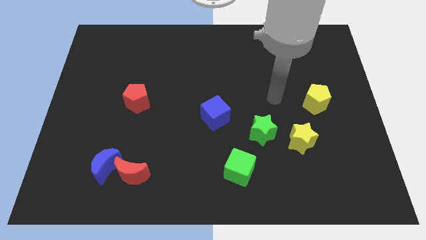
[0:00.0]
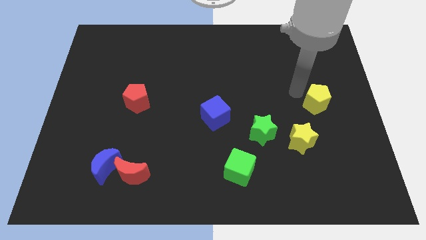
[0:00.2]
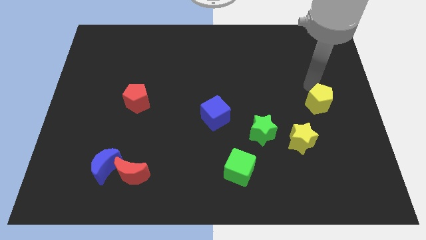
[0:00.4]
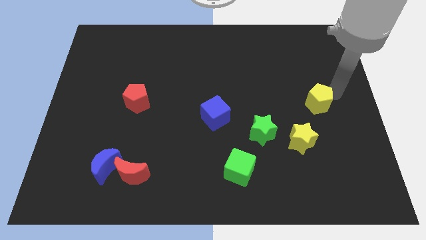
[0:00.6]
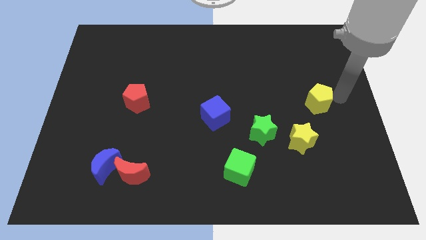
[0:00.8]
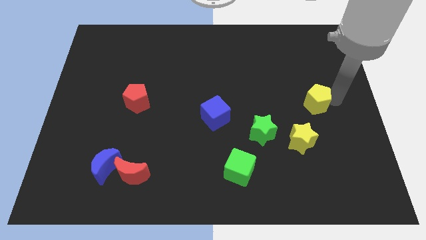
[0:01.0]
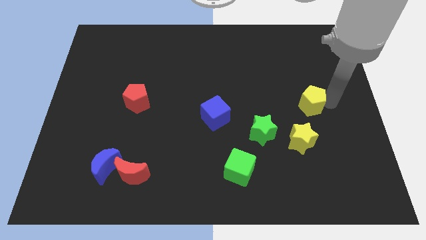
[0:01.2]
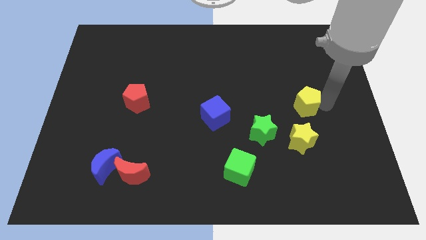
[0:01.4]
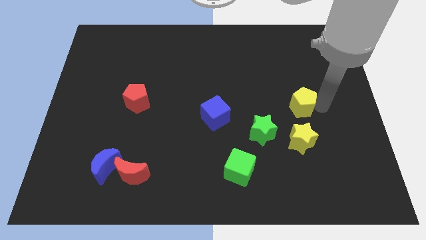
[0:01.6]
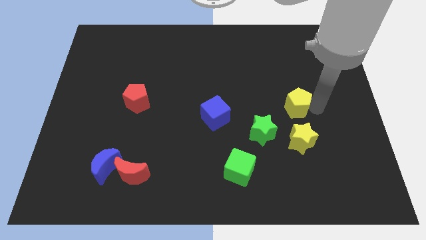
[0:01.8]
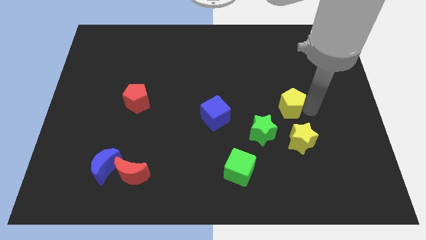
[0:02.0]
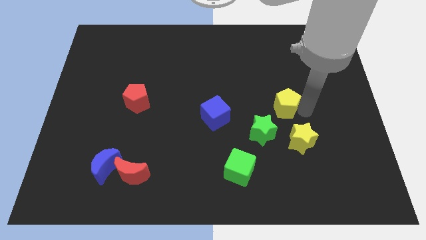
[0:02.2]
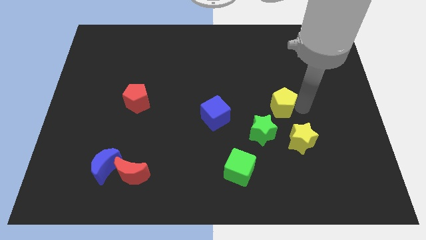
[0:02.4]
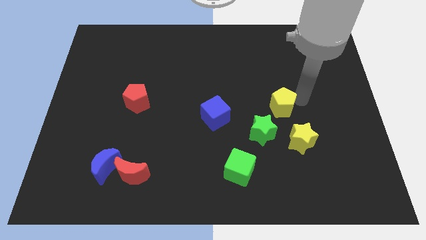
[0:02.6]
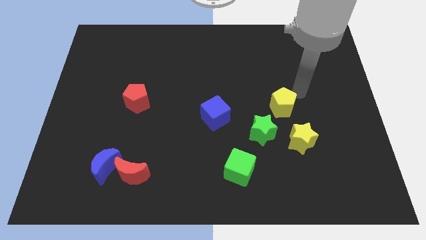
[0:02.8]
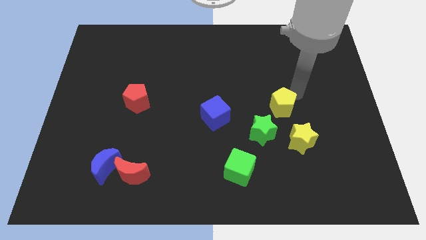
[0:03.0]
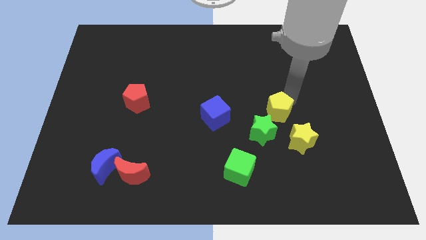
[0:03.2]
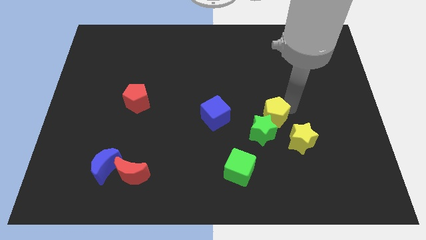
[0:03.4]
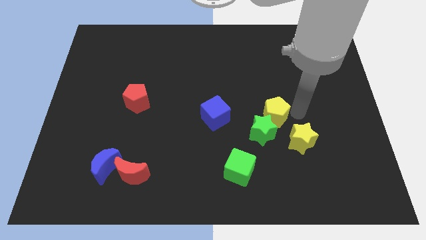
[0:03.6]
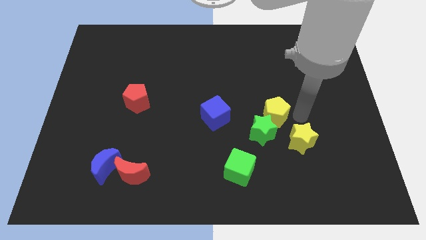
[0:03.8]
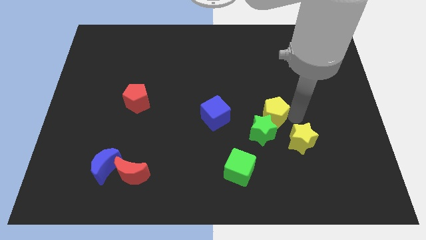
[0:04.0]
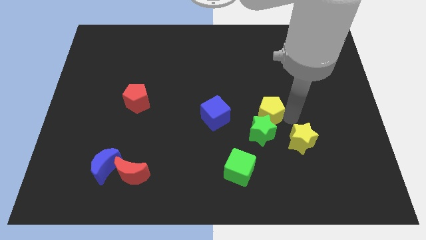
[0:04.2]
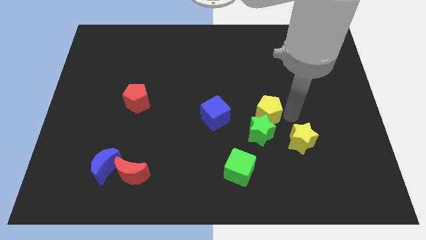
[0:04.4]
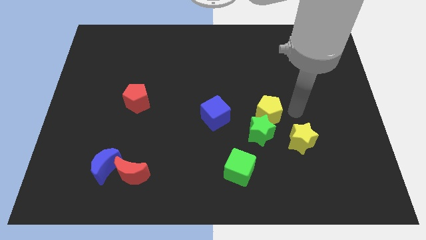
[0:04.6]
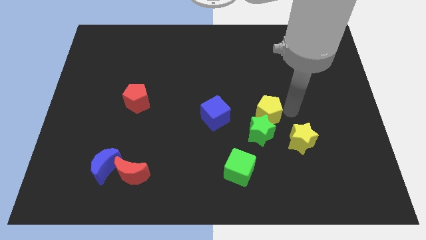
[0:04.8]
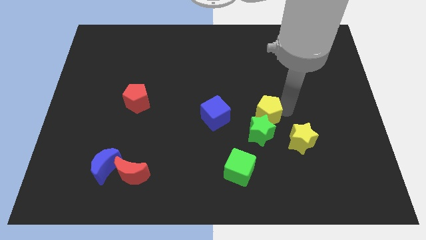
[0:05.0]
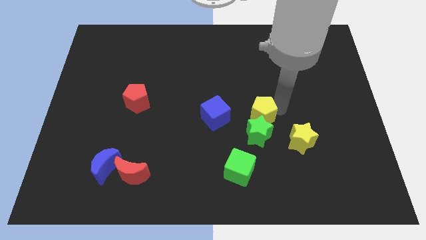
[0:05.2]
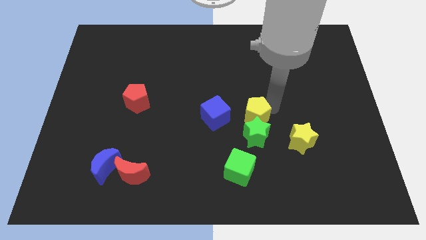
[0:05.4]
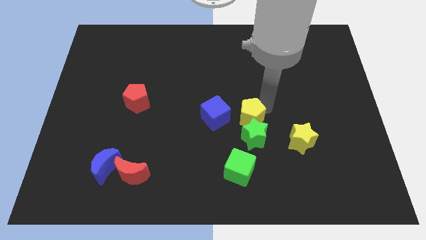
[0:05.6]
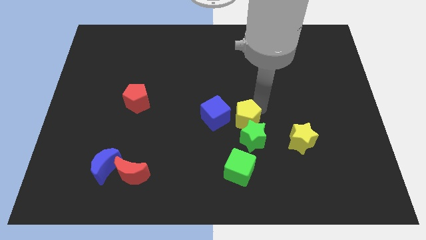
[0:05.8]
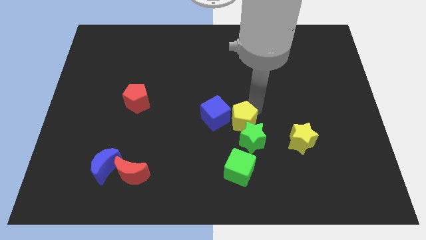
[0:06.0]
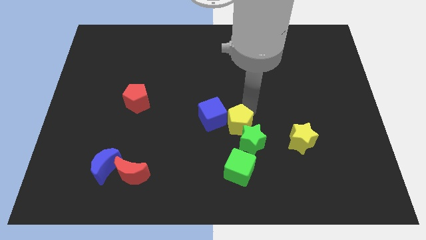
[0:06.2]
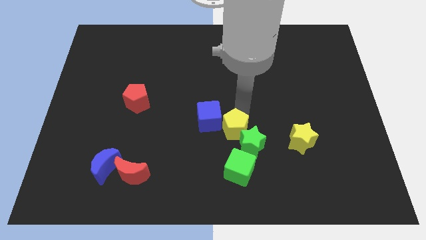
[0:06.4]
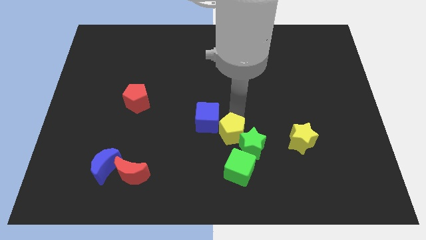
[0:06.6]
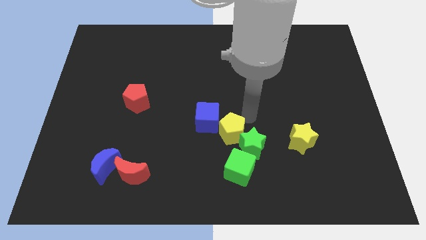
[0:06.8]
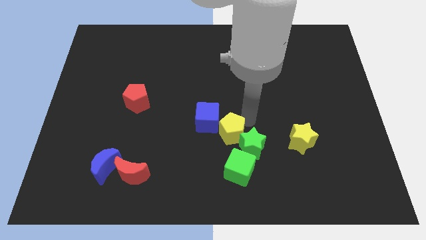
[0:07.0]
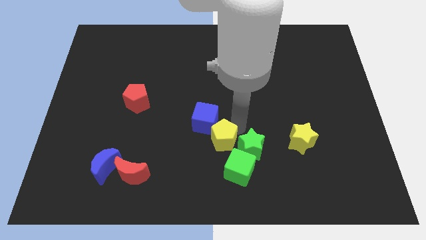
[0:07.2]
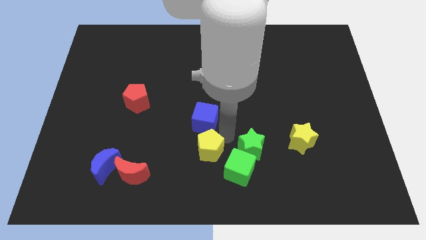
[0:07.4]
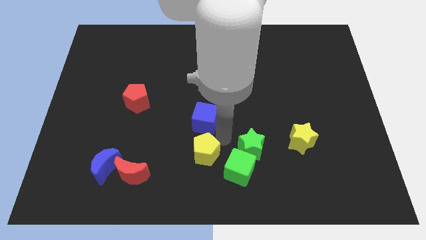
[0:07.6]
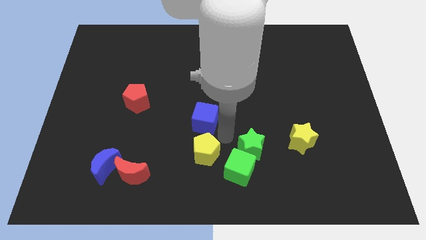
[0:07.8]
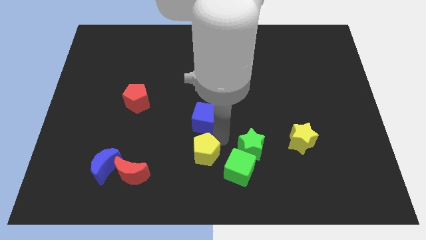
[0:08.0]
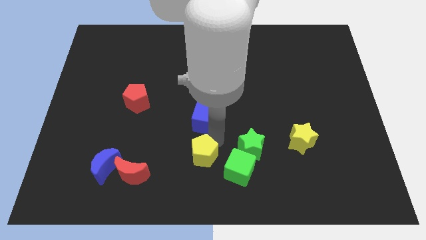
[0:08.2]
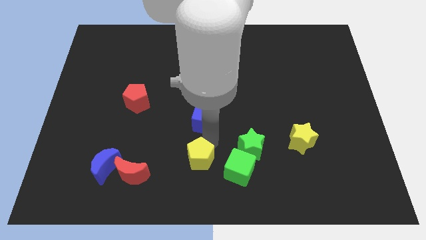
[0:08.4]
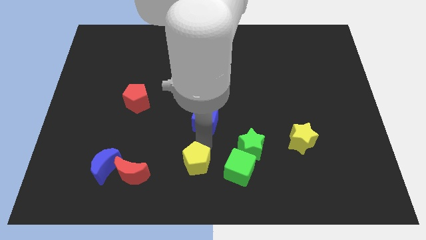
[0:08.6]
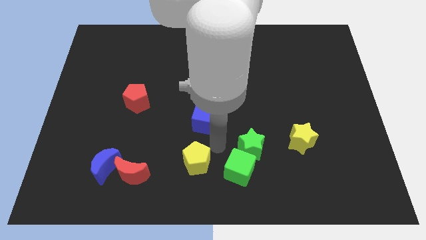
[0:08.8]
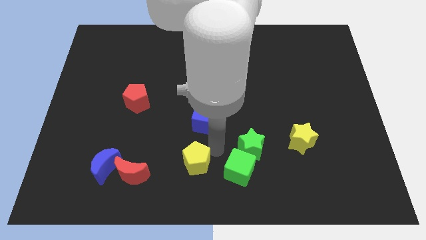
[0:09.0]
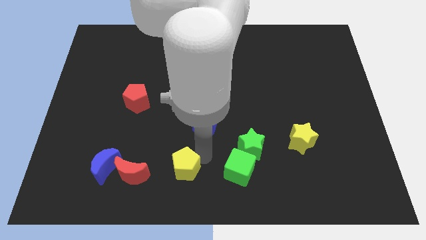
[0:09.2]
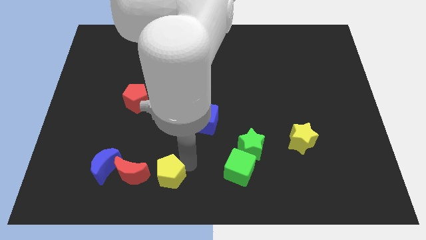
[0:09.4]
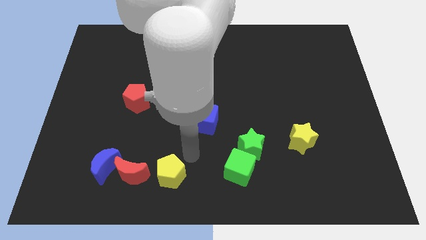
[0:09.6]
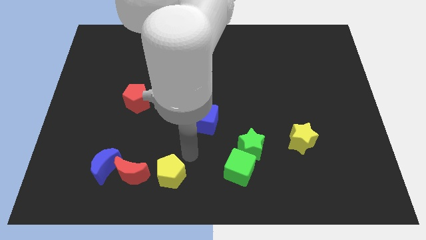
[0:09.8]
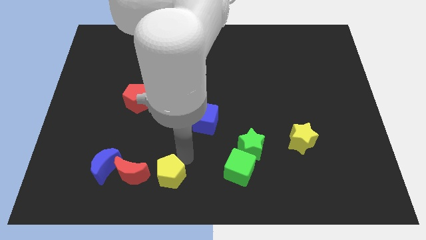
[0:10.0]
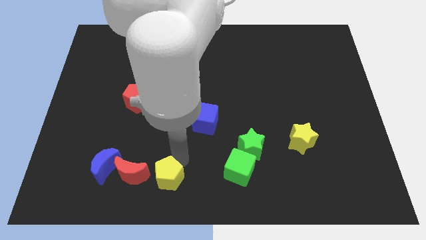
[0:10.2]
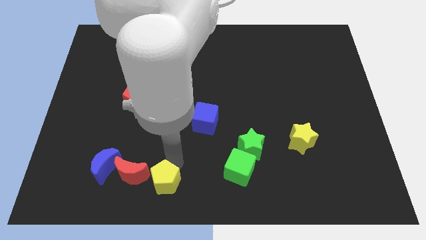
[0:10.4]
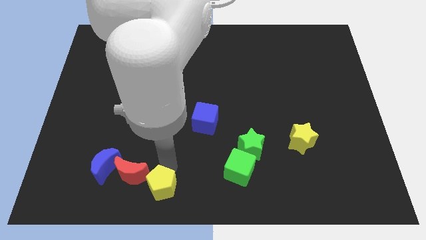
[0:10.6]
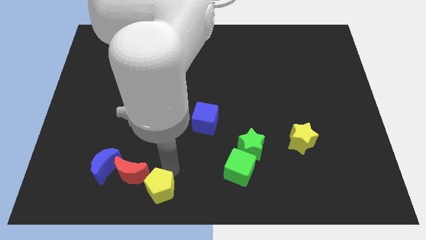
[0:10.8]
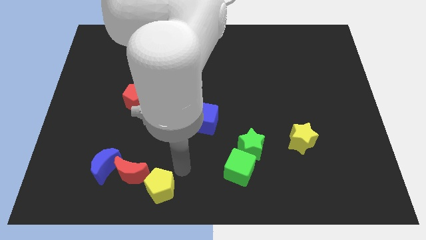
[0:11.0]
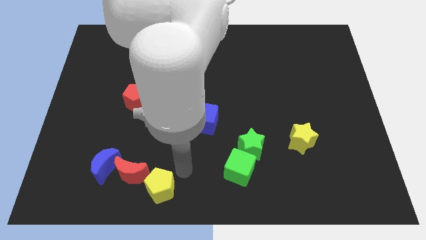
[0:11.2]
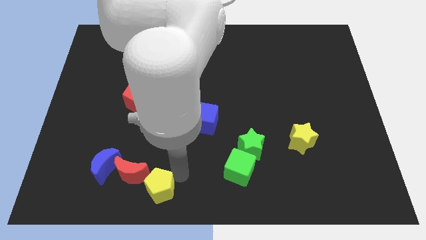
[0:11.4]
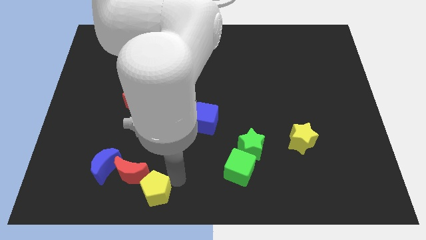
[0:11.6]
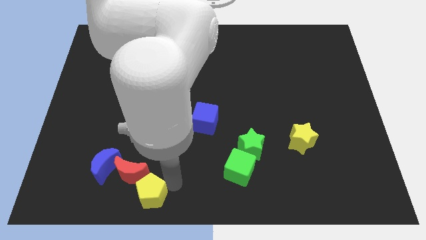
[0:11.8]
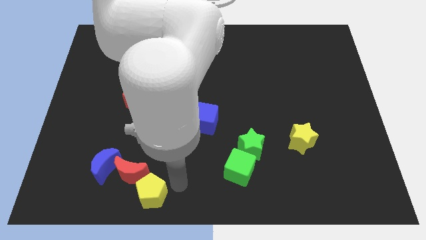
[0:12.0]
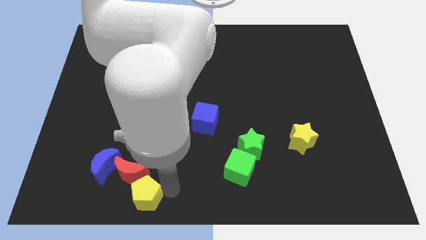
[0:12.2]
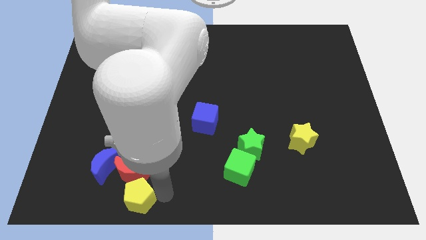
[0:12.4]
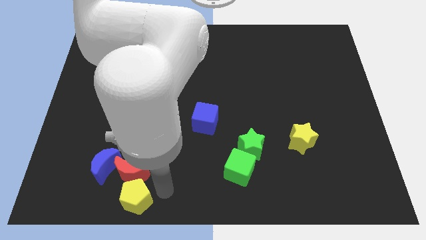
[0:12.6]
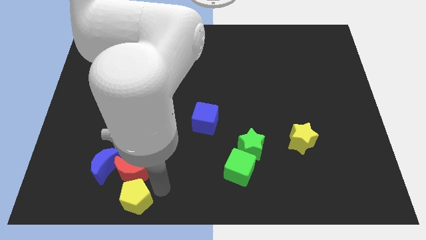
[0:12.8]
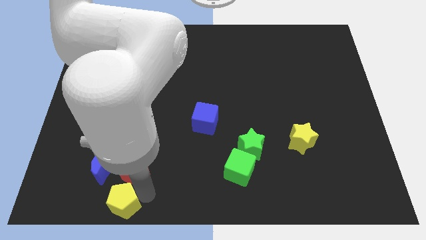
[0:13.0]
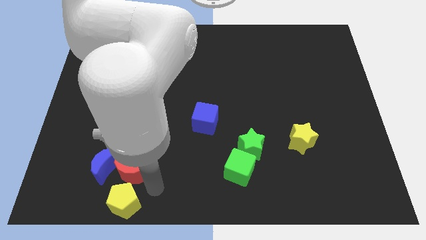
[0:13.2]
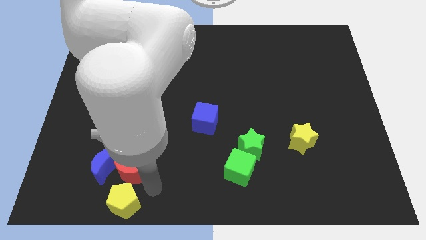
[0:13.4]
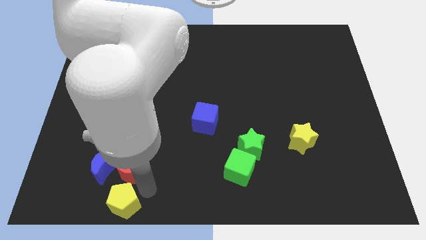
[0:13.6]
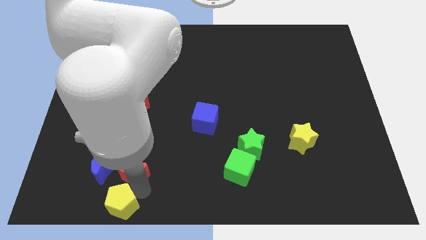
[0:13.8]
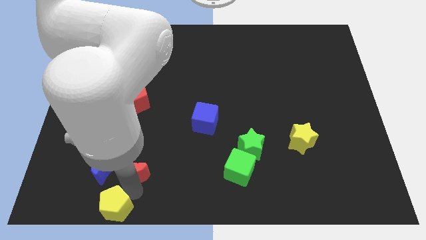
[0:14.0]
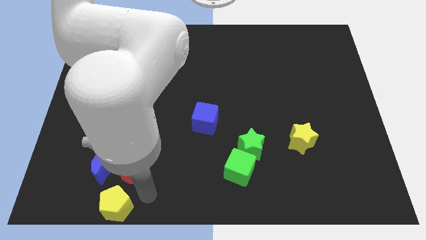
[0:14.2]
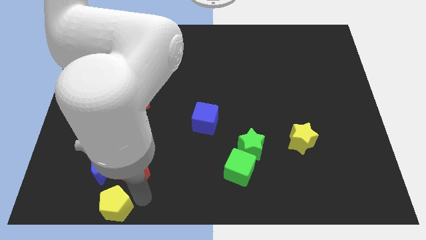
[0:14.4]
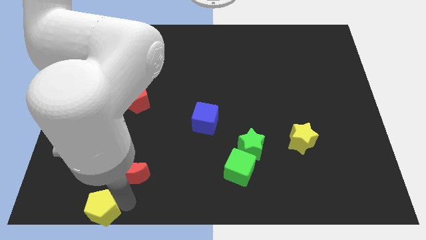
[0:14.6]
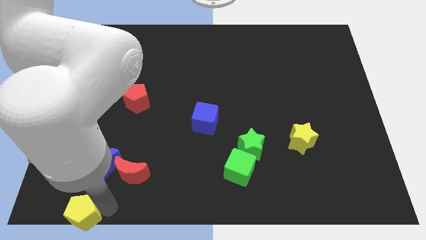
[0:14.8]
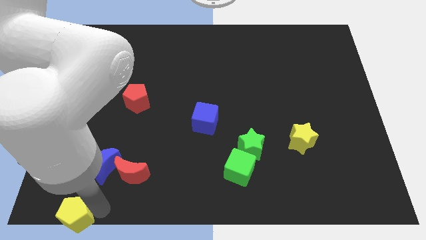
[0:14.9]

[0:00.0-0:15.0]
move the yellow pentagon to the bottom left corner
